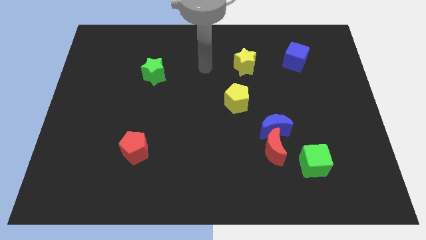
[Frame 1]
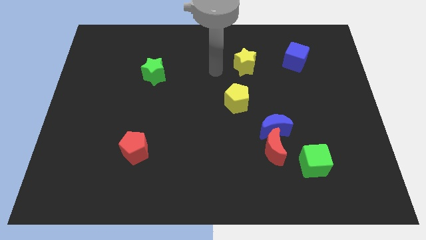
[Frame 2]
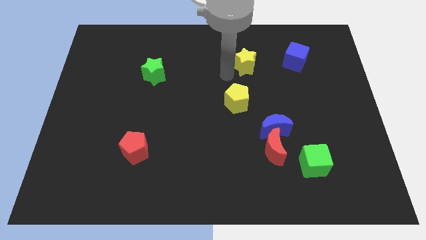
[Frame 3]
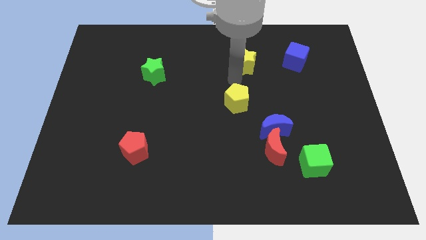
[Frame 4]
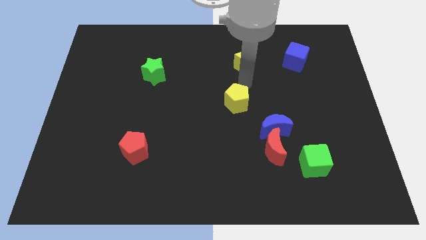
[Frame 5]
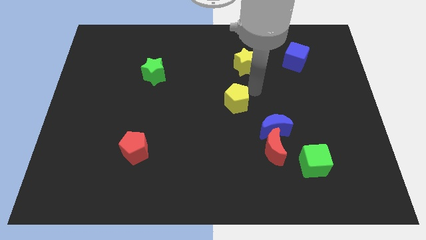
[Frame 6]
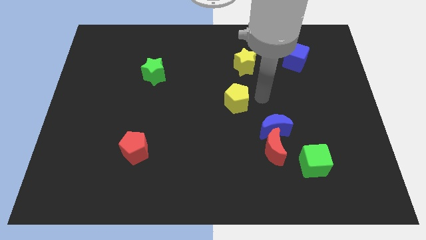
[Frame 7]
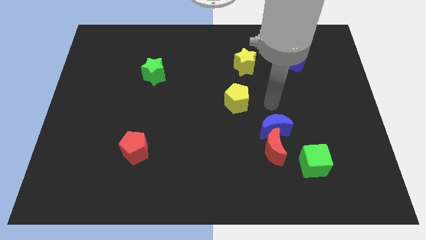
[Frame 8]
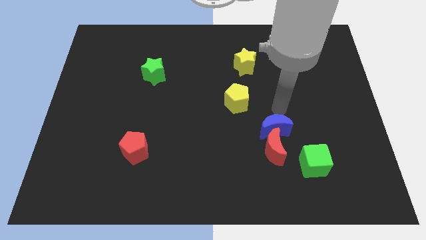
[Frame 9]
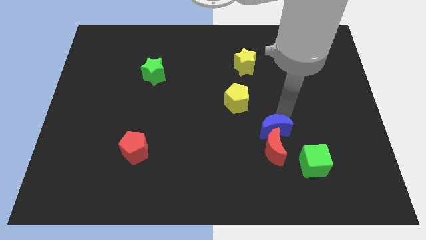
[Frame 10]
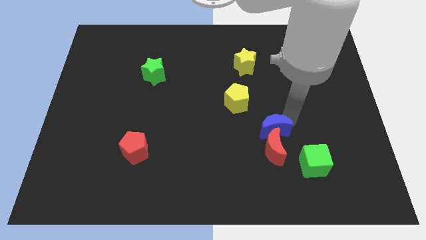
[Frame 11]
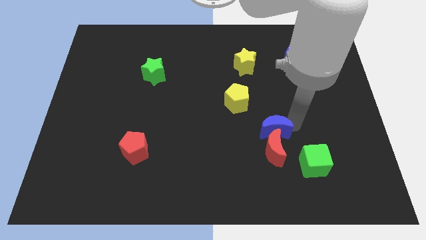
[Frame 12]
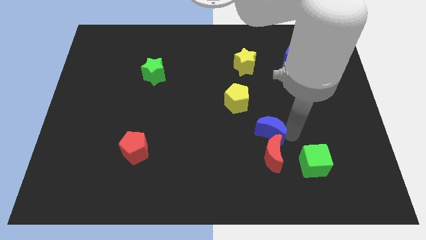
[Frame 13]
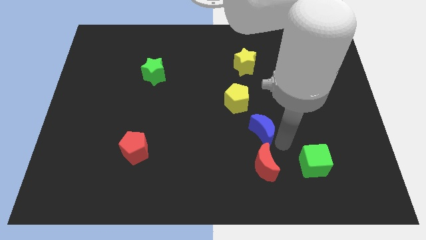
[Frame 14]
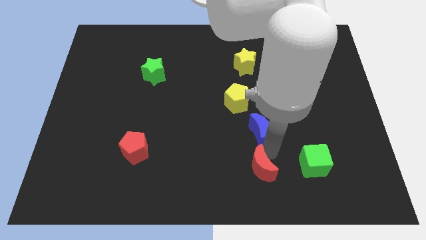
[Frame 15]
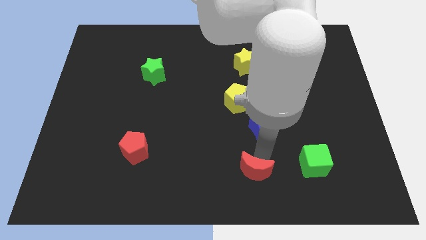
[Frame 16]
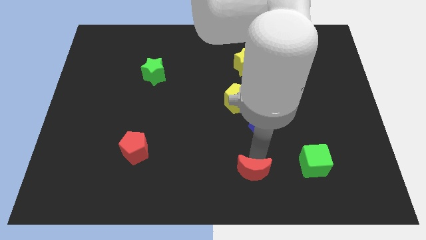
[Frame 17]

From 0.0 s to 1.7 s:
move the blue moon away from the red moon

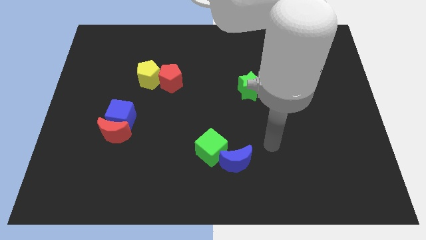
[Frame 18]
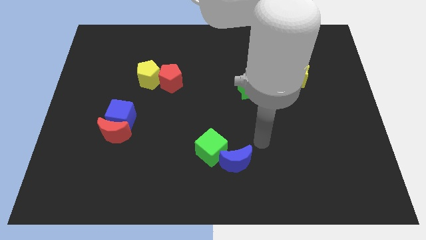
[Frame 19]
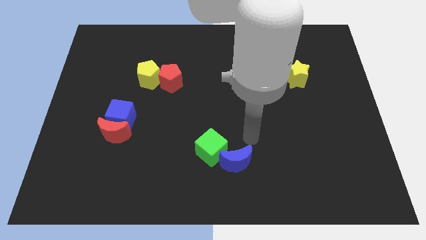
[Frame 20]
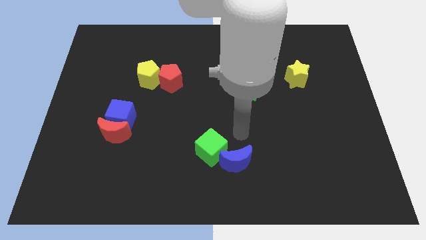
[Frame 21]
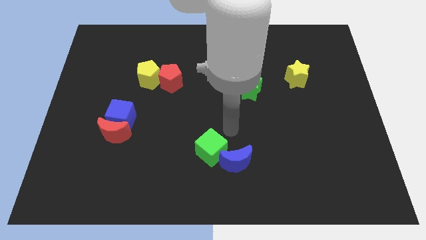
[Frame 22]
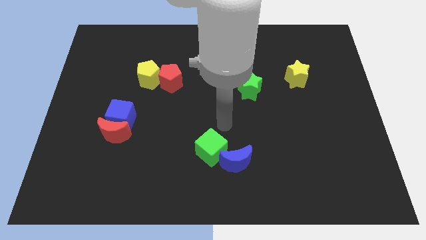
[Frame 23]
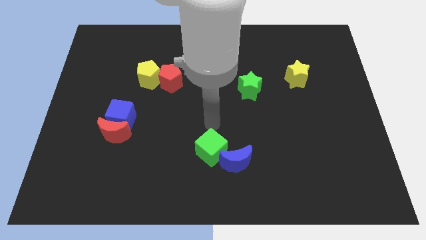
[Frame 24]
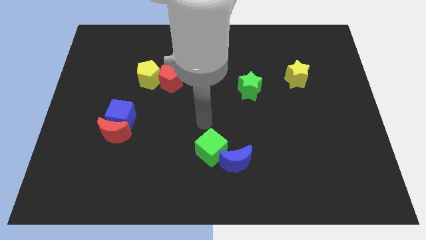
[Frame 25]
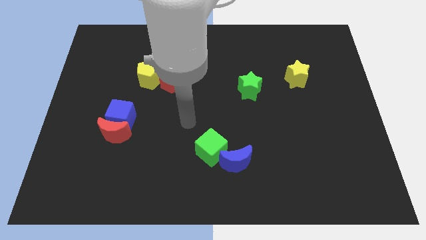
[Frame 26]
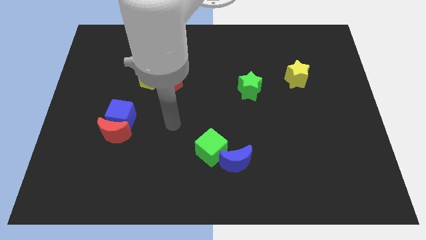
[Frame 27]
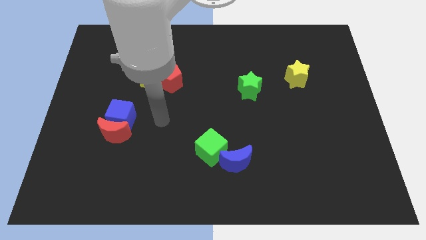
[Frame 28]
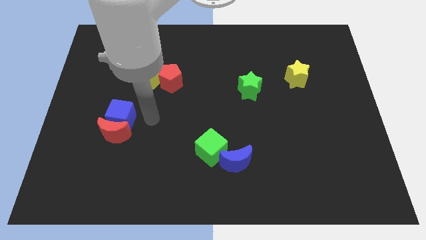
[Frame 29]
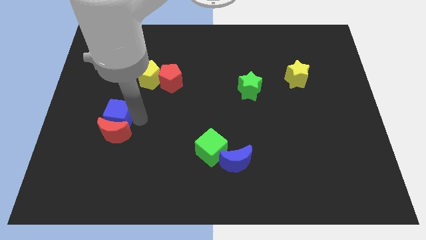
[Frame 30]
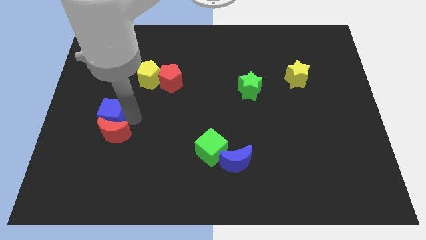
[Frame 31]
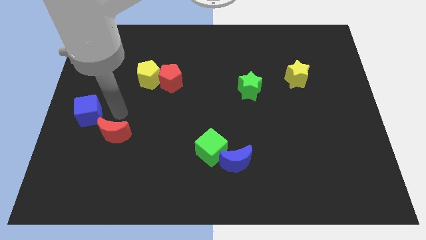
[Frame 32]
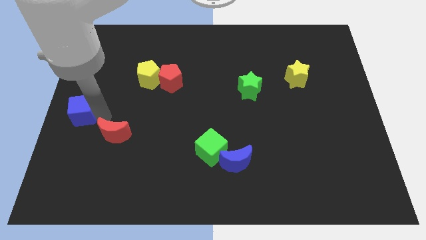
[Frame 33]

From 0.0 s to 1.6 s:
move the red moon away from the blue cube

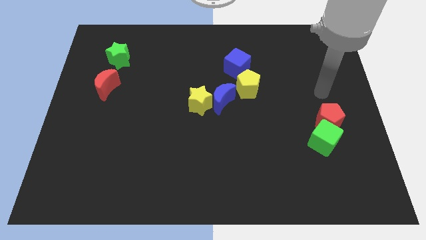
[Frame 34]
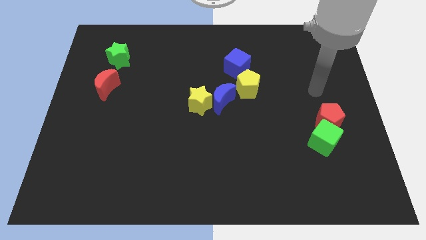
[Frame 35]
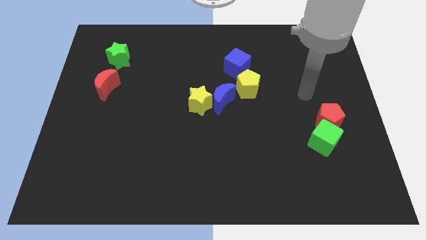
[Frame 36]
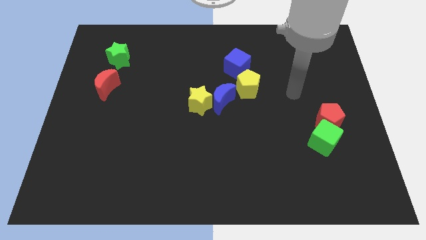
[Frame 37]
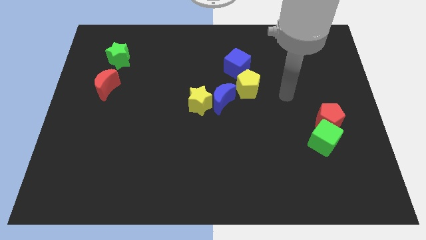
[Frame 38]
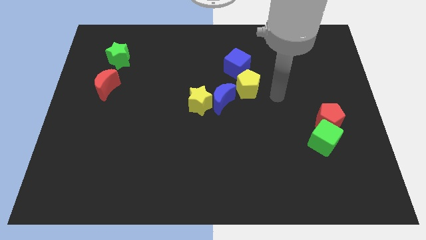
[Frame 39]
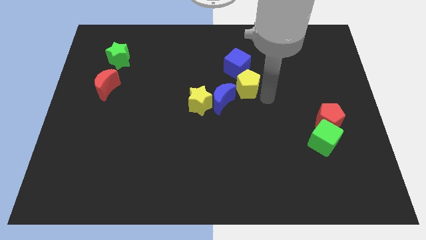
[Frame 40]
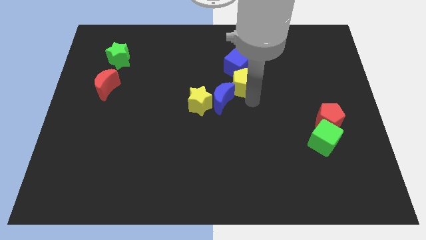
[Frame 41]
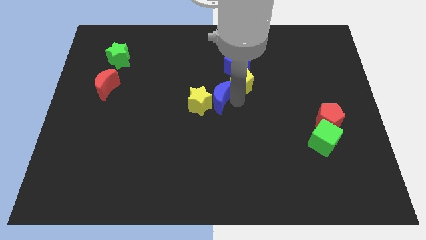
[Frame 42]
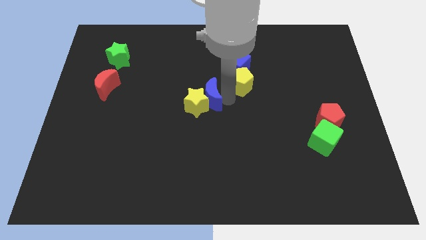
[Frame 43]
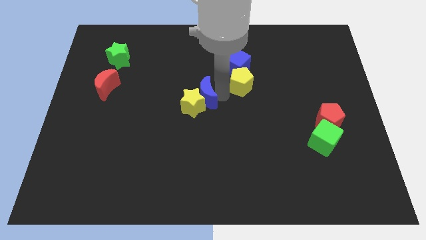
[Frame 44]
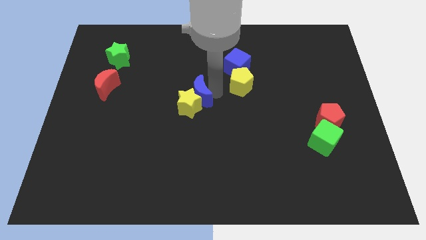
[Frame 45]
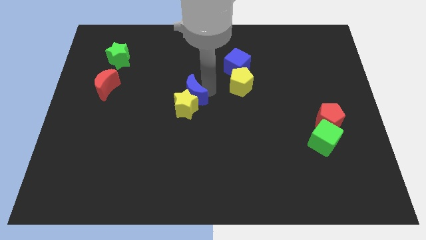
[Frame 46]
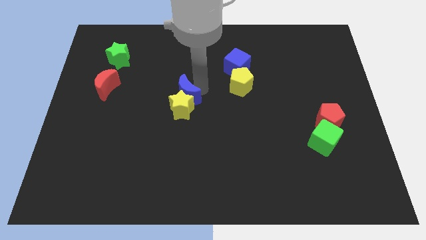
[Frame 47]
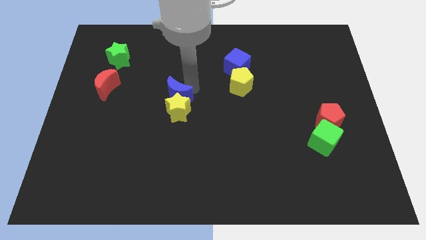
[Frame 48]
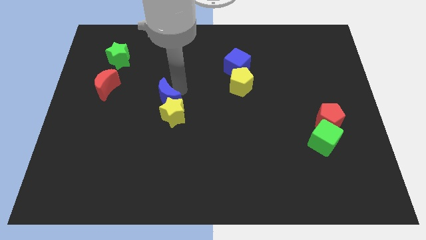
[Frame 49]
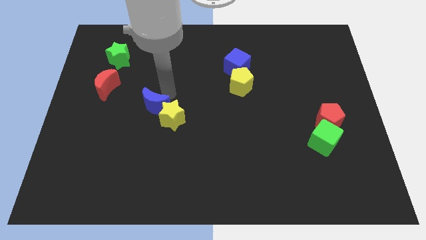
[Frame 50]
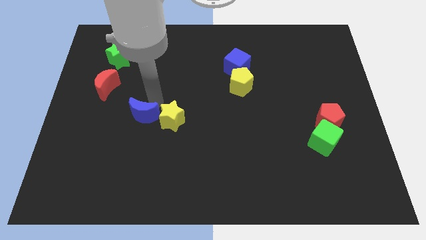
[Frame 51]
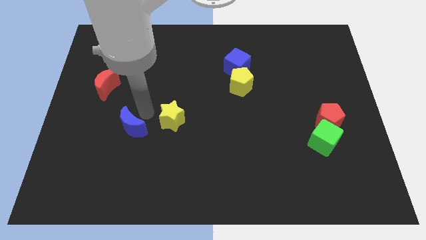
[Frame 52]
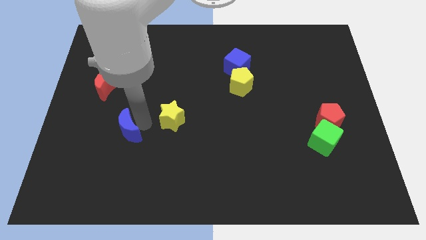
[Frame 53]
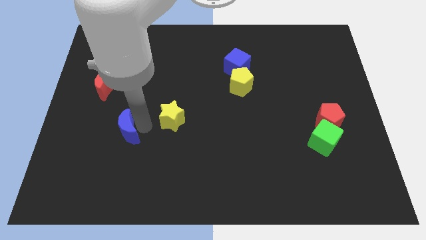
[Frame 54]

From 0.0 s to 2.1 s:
move the yellow star away from the blue moon

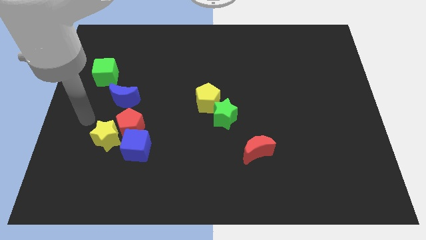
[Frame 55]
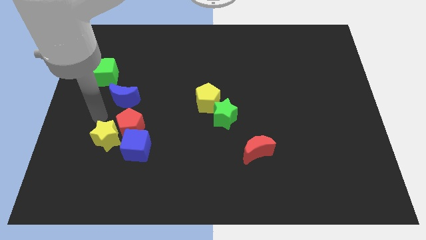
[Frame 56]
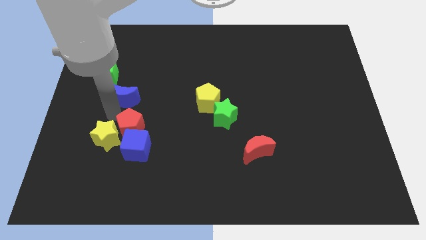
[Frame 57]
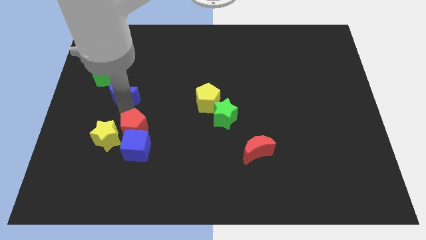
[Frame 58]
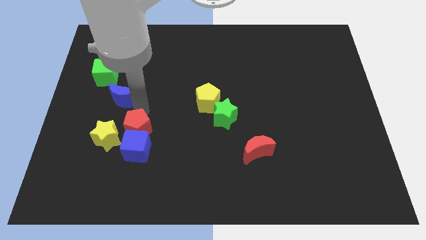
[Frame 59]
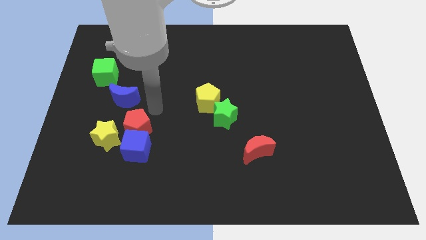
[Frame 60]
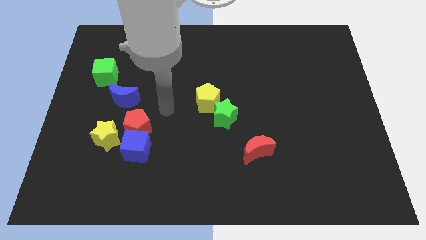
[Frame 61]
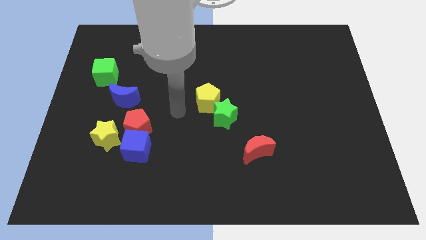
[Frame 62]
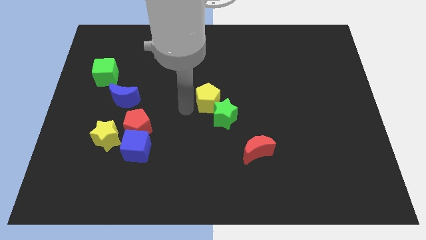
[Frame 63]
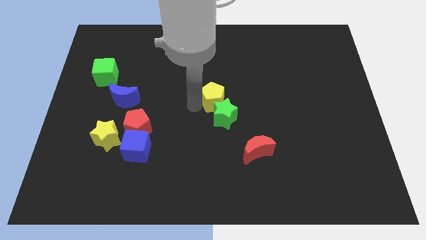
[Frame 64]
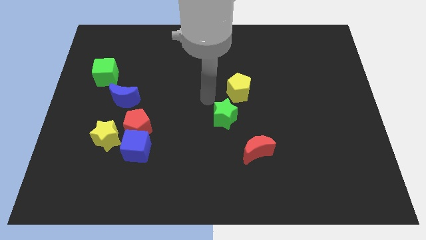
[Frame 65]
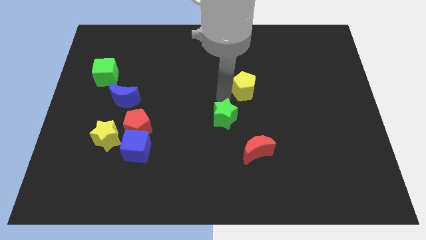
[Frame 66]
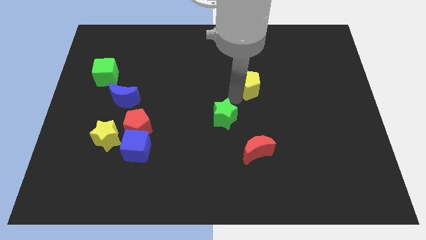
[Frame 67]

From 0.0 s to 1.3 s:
separate the green star from the yellow pentagon

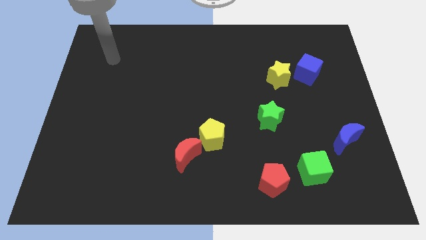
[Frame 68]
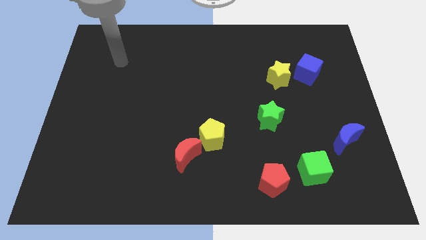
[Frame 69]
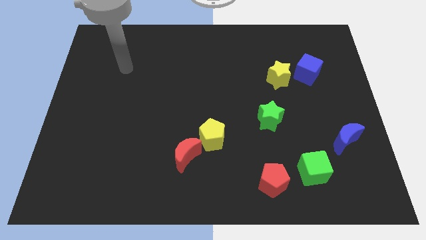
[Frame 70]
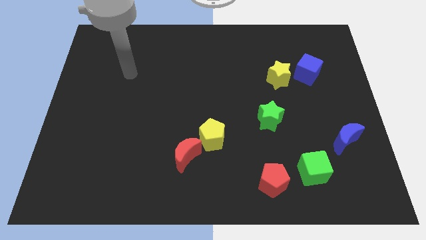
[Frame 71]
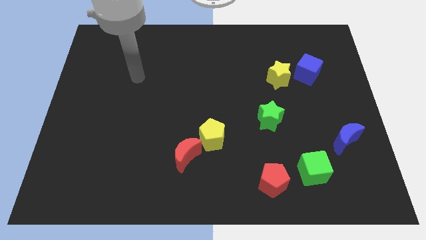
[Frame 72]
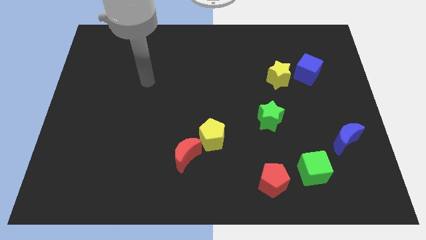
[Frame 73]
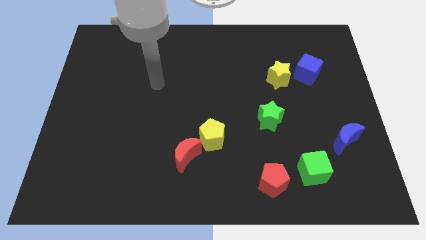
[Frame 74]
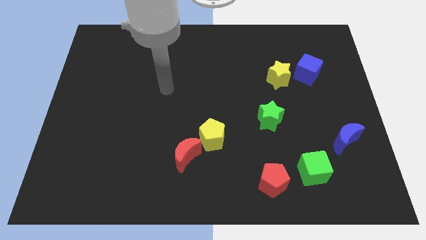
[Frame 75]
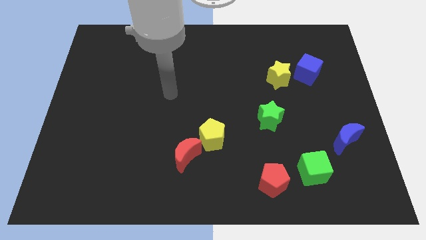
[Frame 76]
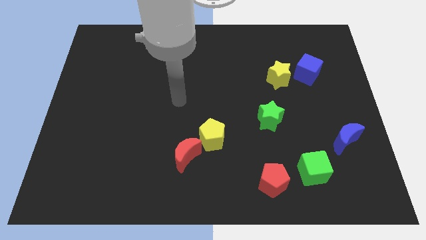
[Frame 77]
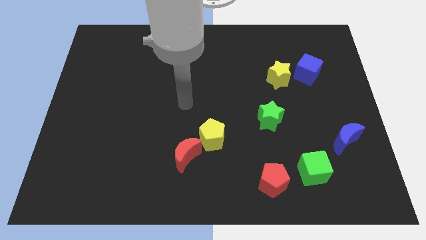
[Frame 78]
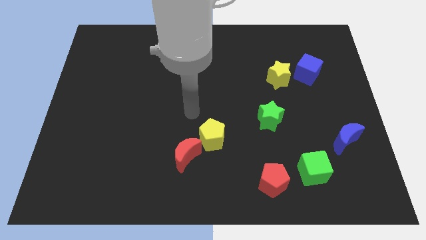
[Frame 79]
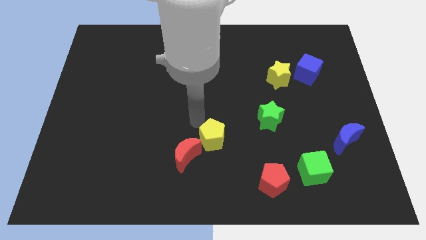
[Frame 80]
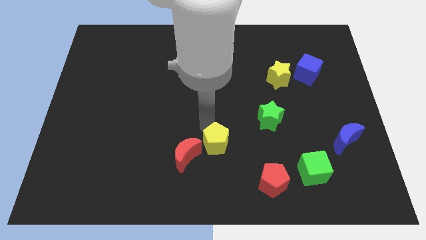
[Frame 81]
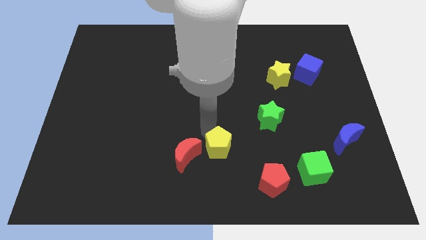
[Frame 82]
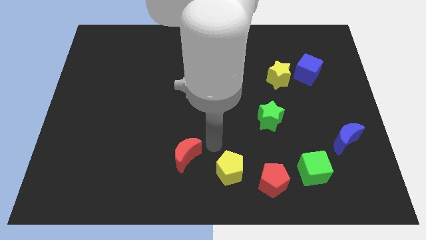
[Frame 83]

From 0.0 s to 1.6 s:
move the red moon away from the yellow pentagon

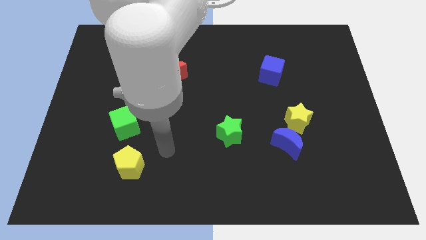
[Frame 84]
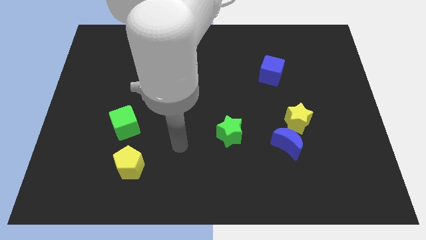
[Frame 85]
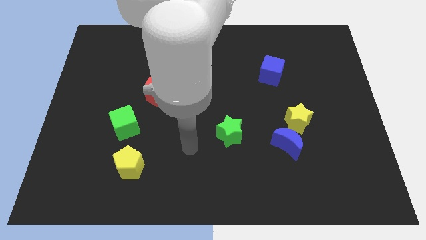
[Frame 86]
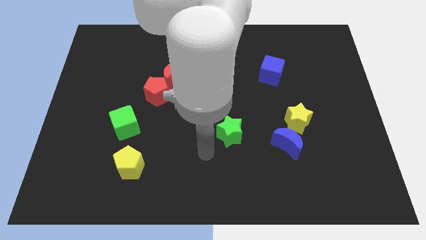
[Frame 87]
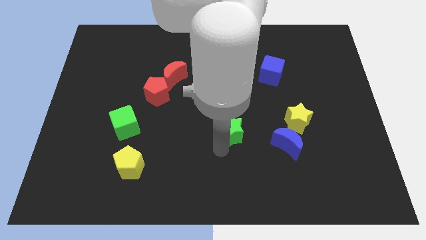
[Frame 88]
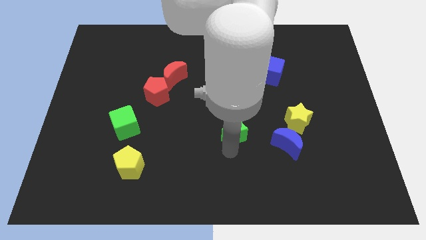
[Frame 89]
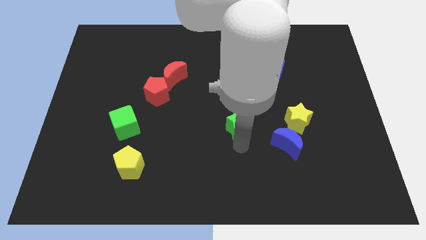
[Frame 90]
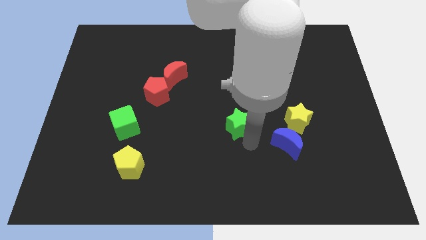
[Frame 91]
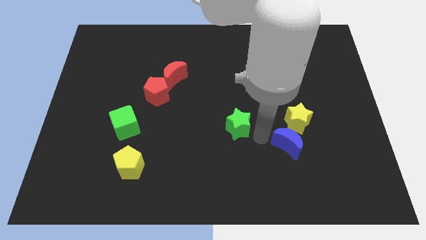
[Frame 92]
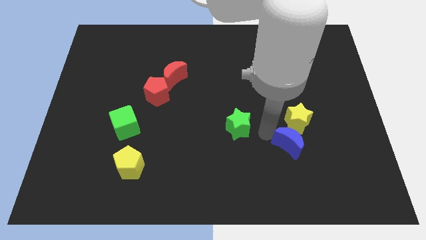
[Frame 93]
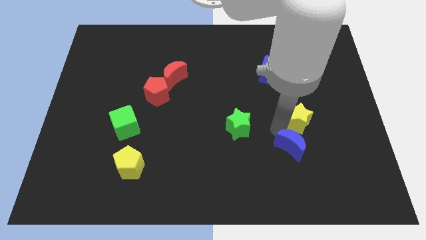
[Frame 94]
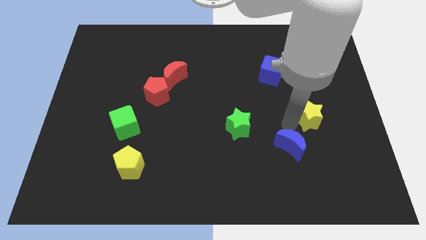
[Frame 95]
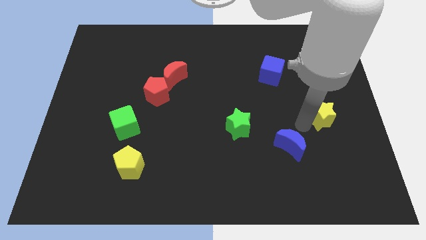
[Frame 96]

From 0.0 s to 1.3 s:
separate the blue moon from the yellow star
